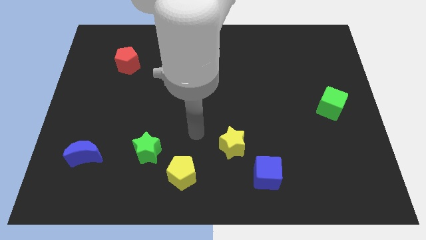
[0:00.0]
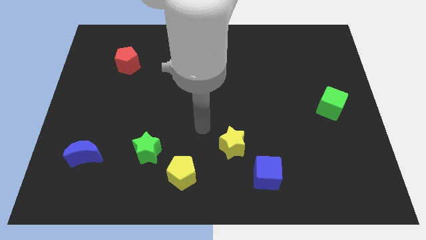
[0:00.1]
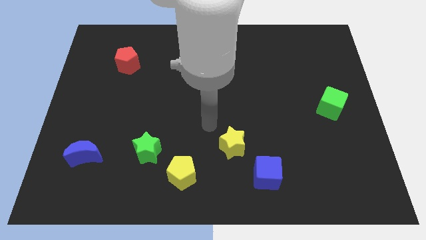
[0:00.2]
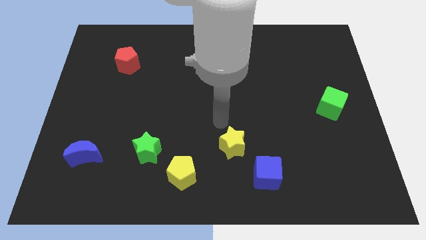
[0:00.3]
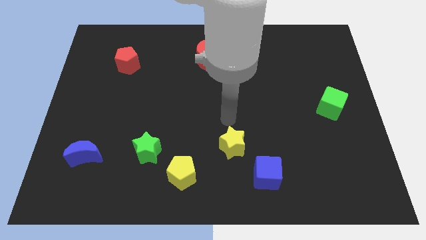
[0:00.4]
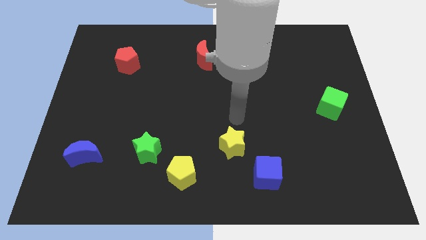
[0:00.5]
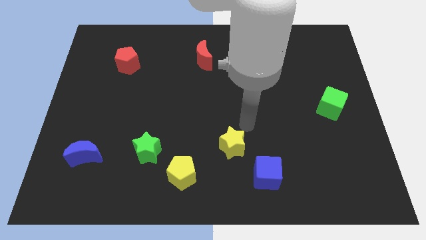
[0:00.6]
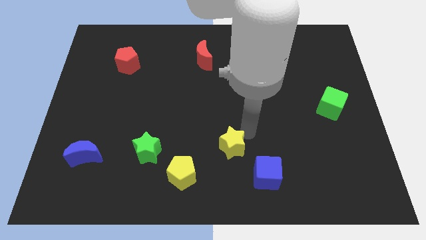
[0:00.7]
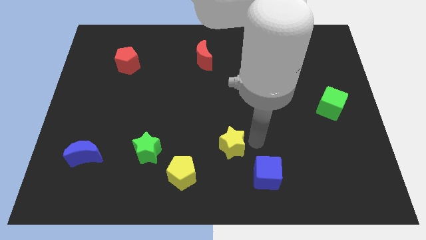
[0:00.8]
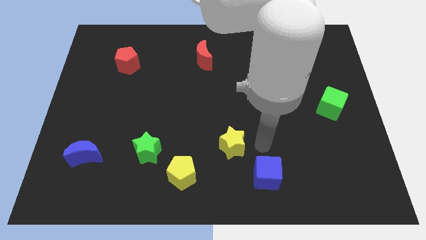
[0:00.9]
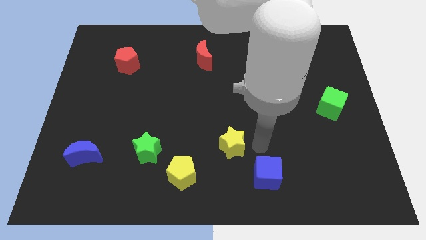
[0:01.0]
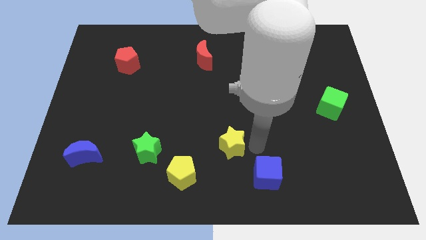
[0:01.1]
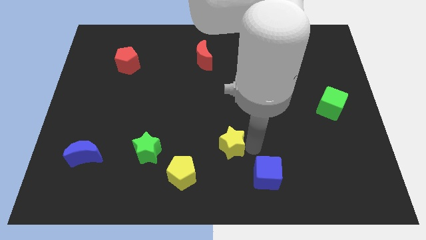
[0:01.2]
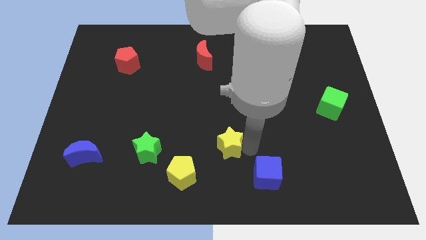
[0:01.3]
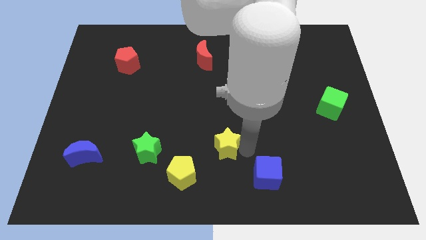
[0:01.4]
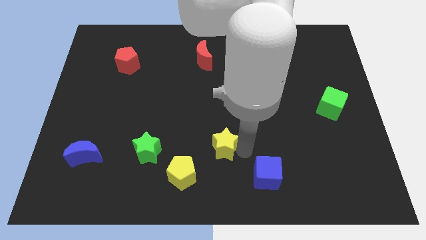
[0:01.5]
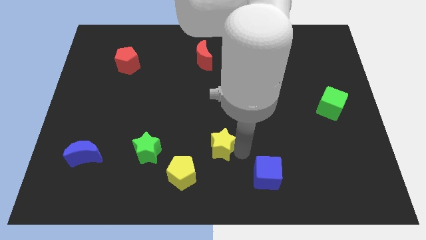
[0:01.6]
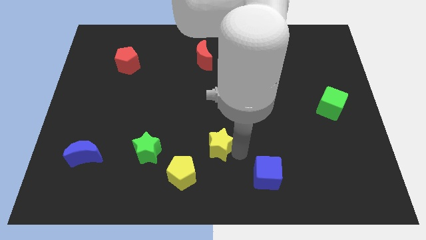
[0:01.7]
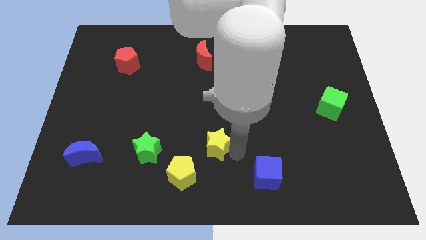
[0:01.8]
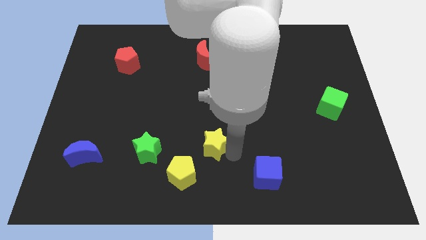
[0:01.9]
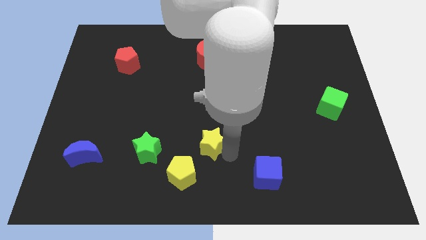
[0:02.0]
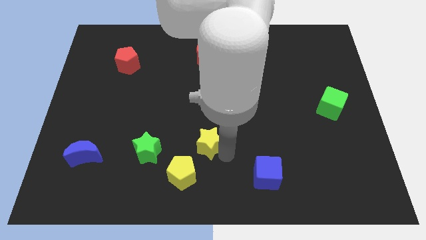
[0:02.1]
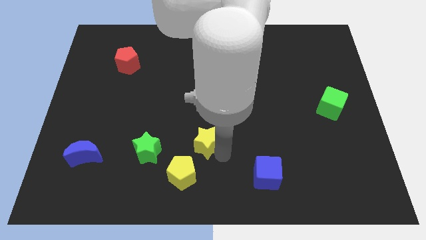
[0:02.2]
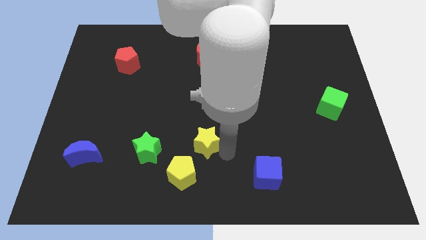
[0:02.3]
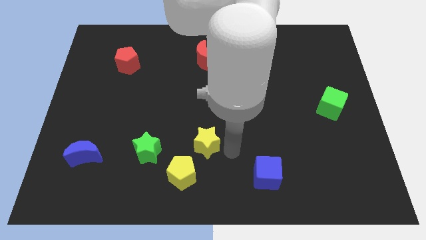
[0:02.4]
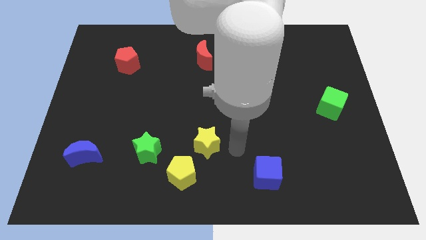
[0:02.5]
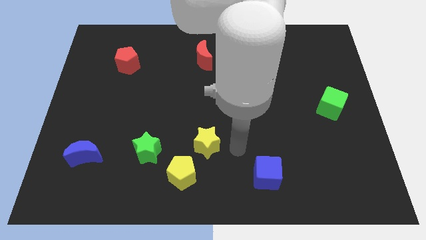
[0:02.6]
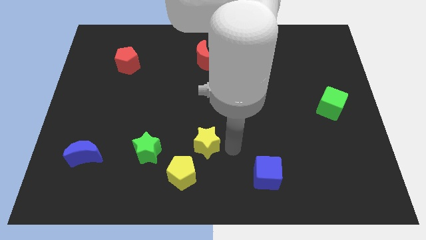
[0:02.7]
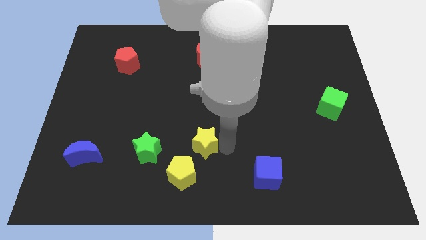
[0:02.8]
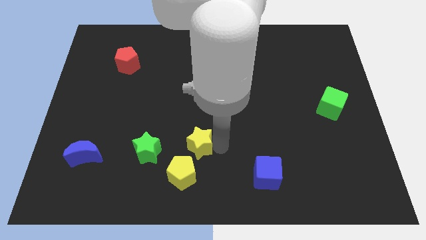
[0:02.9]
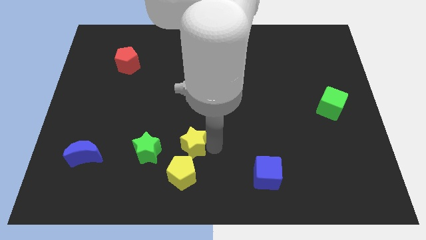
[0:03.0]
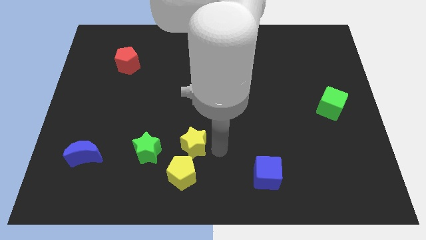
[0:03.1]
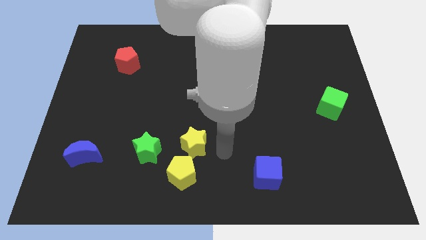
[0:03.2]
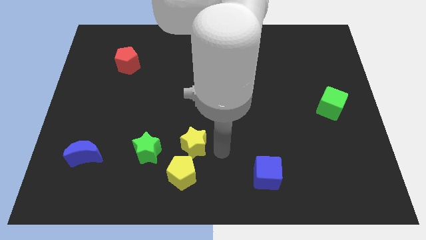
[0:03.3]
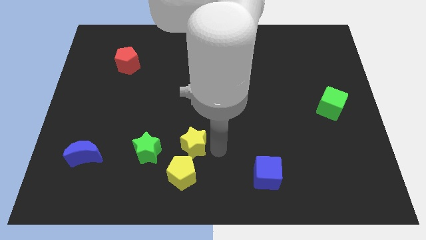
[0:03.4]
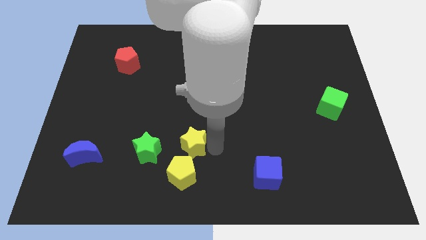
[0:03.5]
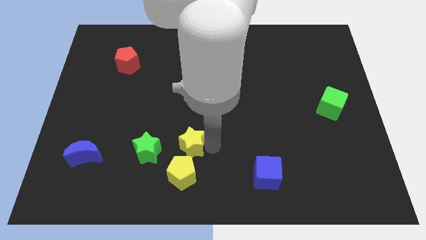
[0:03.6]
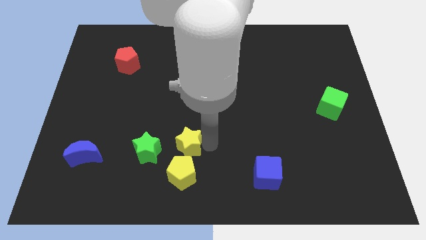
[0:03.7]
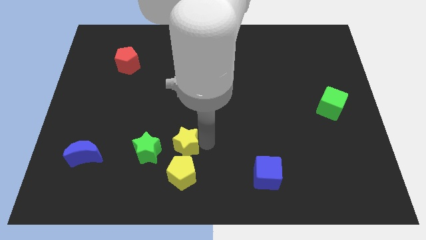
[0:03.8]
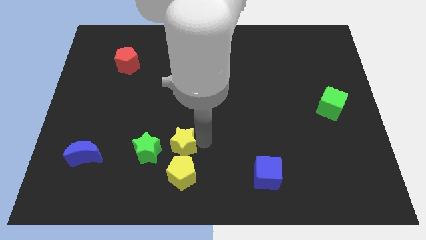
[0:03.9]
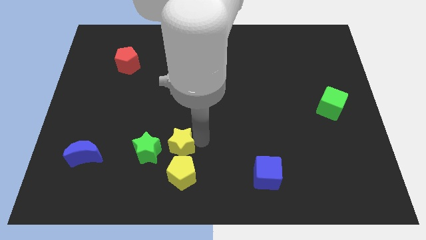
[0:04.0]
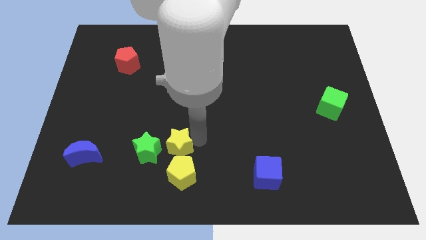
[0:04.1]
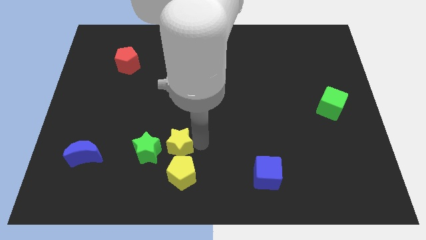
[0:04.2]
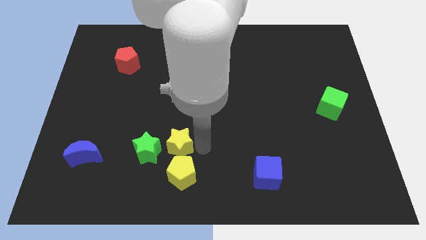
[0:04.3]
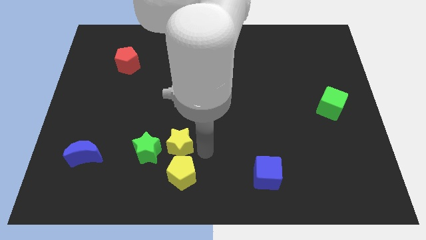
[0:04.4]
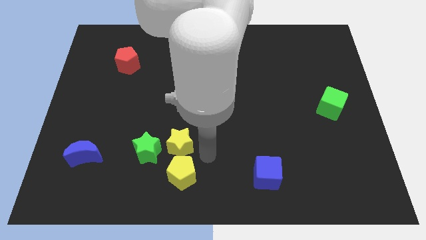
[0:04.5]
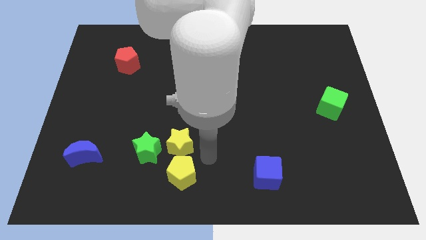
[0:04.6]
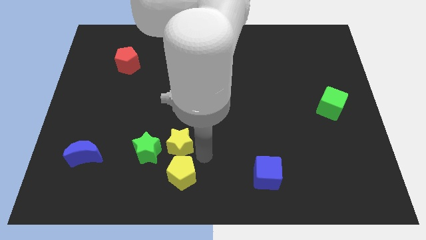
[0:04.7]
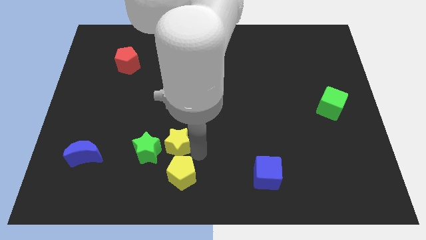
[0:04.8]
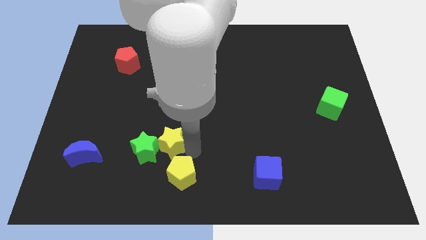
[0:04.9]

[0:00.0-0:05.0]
push the yellow star close to the green star

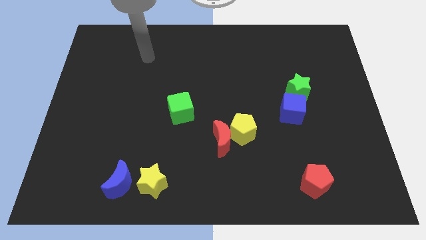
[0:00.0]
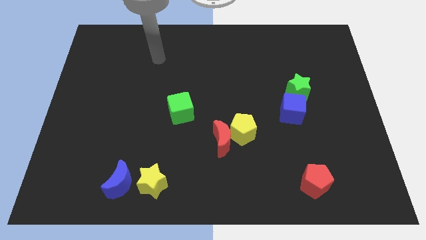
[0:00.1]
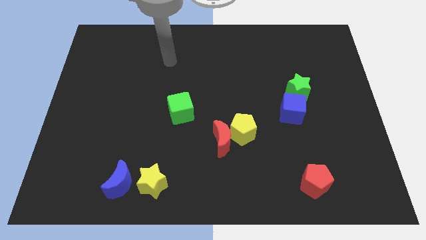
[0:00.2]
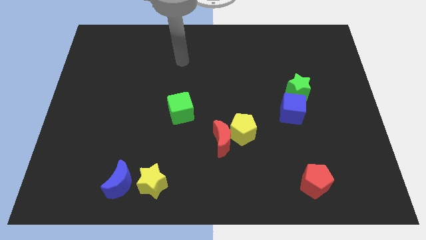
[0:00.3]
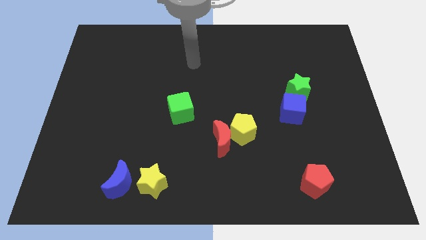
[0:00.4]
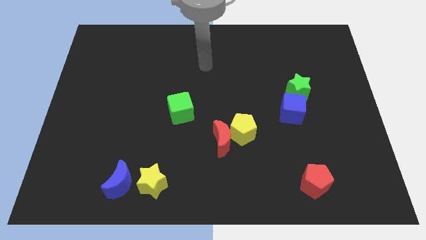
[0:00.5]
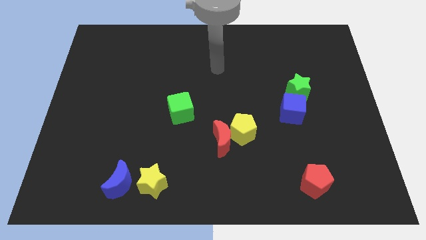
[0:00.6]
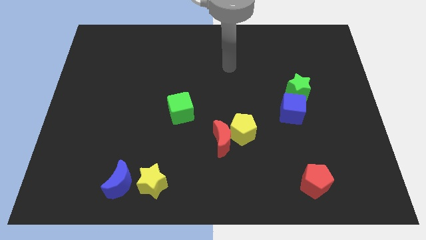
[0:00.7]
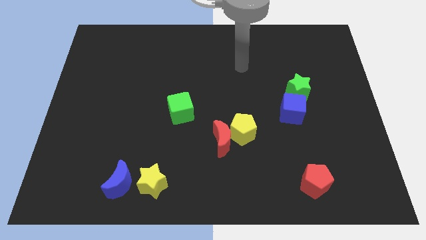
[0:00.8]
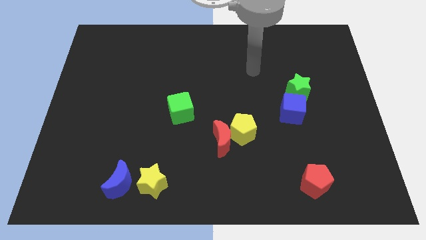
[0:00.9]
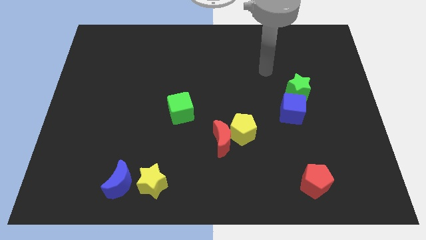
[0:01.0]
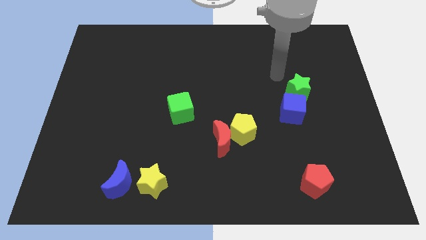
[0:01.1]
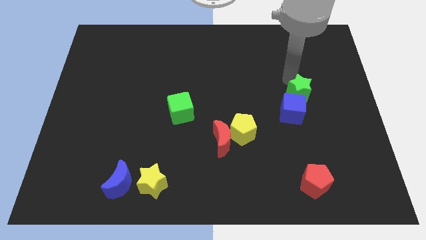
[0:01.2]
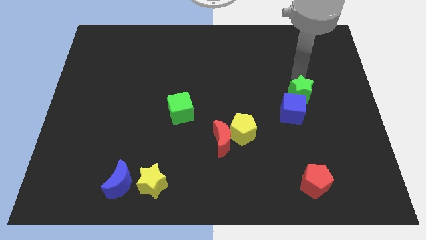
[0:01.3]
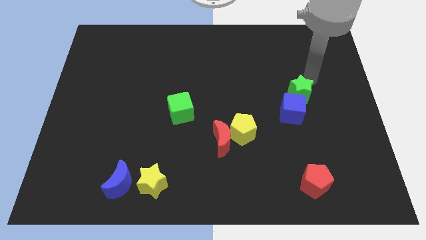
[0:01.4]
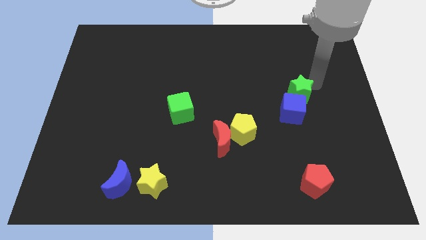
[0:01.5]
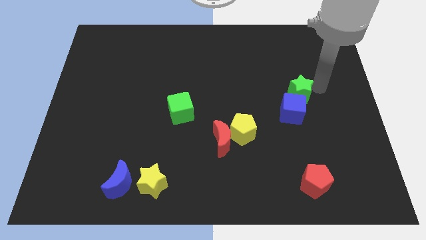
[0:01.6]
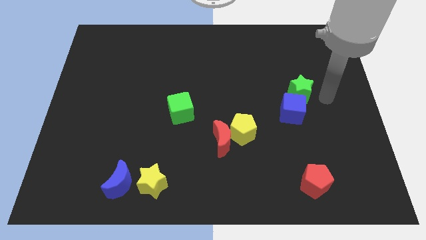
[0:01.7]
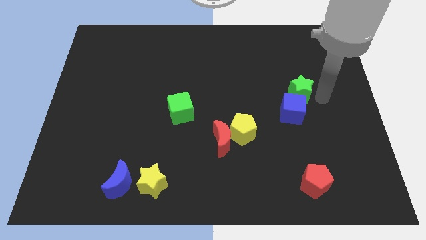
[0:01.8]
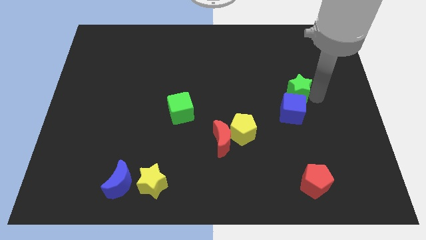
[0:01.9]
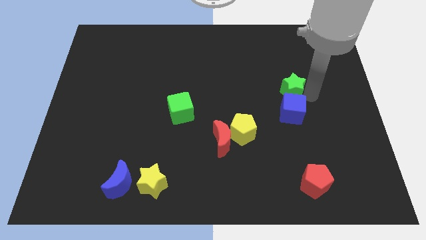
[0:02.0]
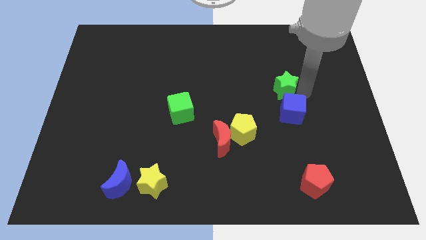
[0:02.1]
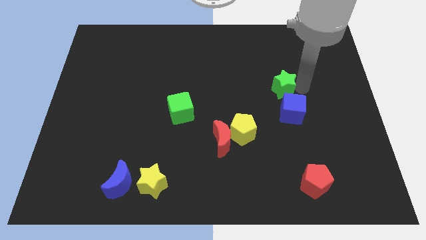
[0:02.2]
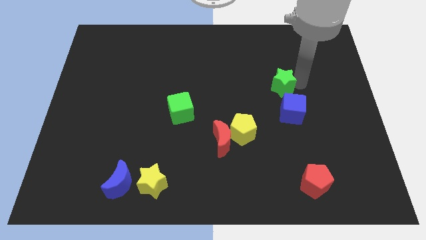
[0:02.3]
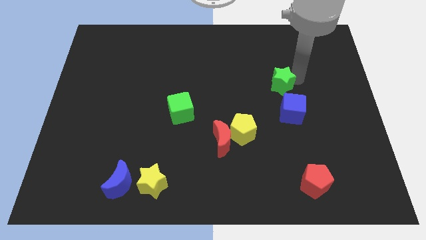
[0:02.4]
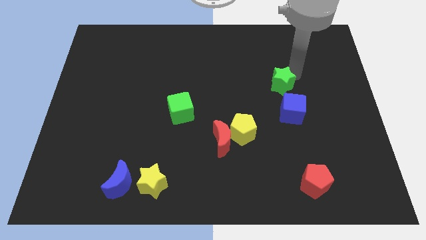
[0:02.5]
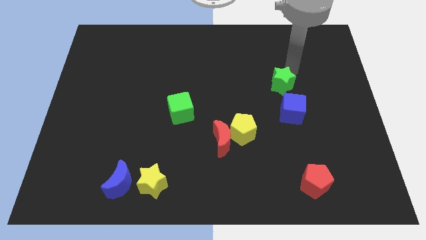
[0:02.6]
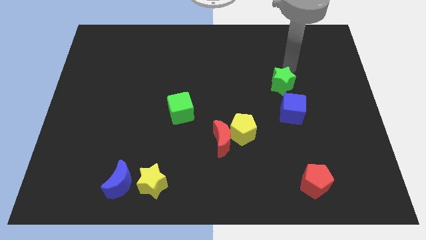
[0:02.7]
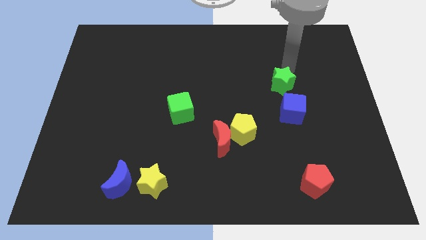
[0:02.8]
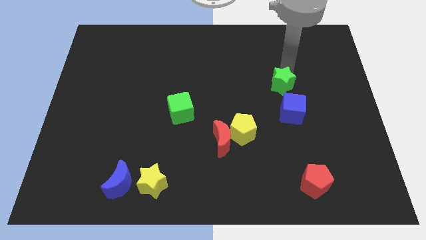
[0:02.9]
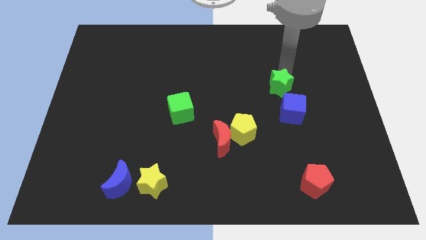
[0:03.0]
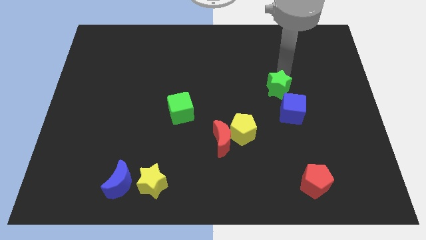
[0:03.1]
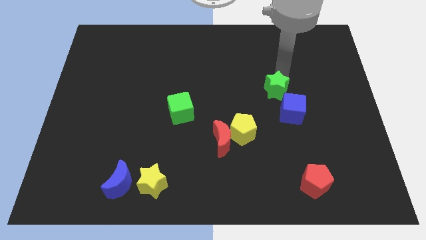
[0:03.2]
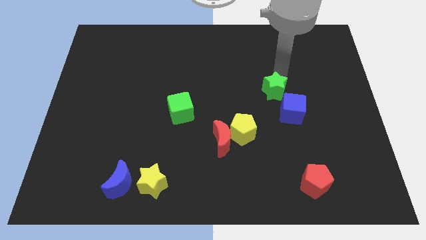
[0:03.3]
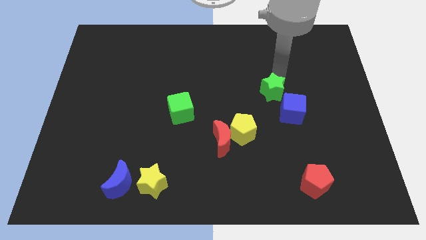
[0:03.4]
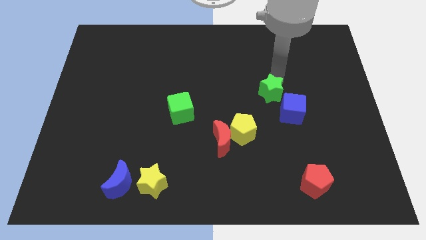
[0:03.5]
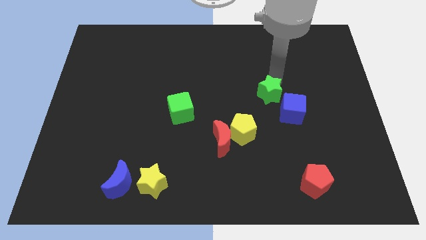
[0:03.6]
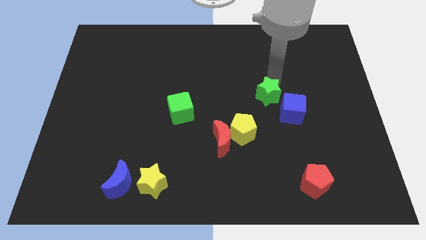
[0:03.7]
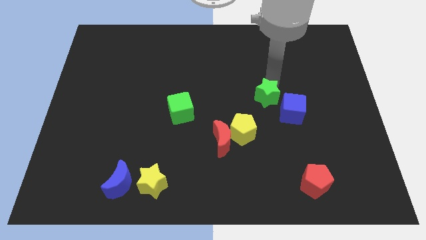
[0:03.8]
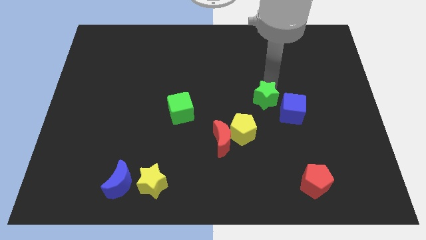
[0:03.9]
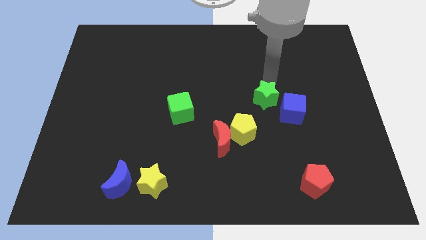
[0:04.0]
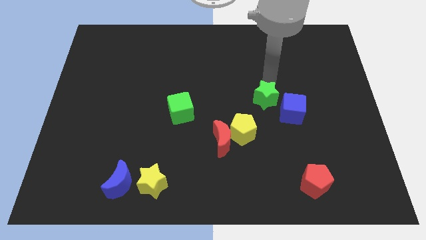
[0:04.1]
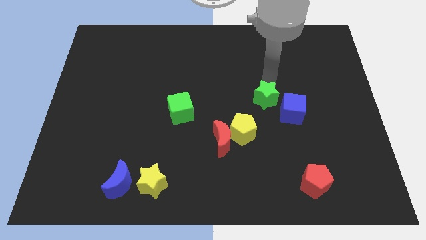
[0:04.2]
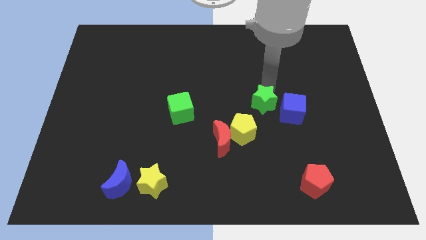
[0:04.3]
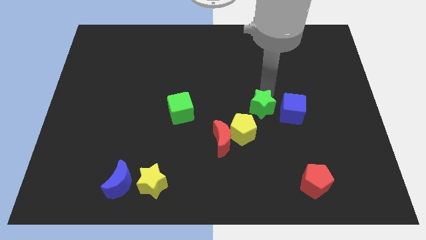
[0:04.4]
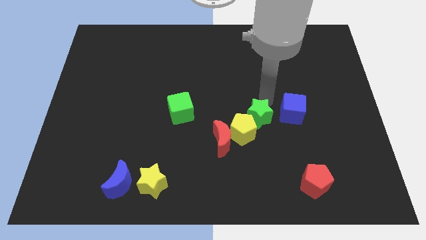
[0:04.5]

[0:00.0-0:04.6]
push the green star close to the yellow pentagon
